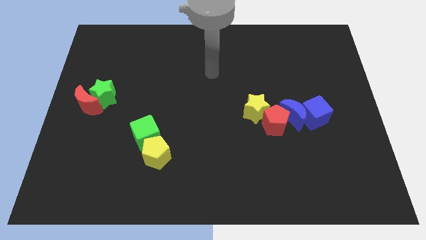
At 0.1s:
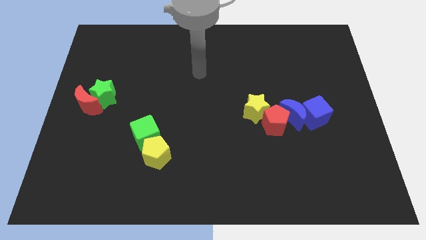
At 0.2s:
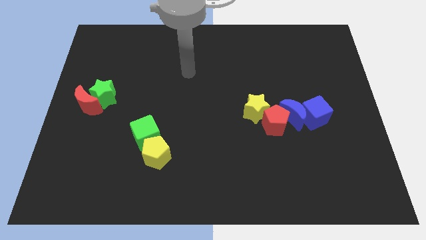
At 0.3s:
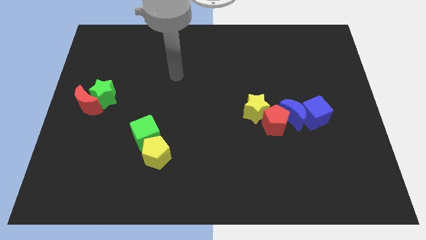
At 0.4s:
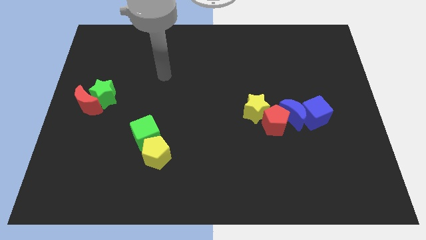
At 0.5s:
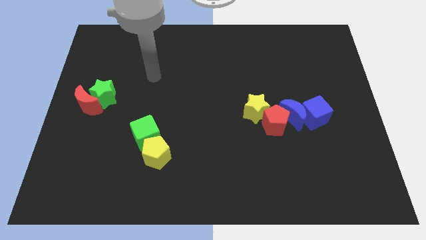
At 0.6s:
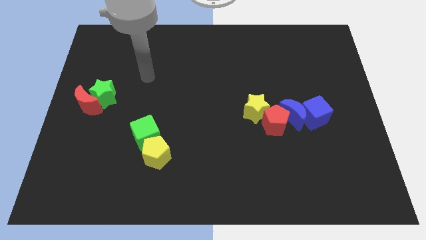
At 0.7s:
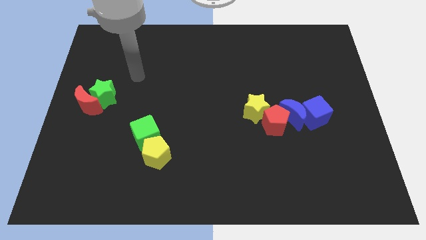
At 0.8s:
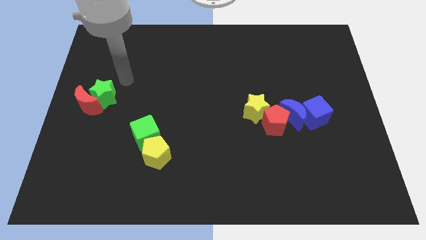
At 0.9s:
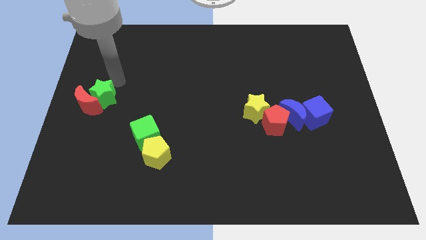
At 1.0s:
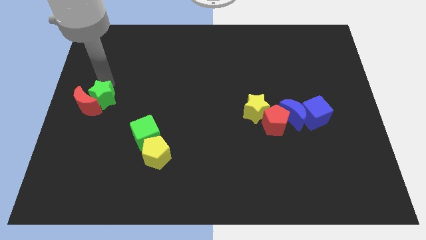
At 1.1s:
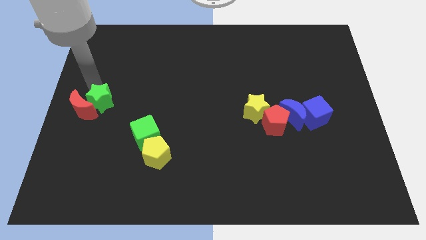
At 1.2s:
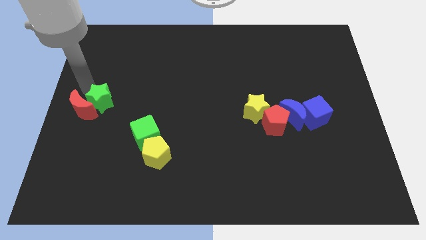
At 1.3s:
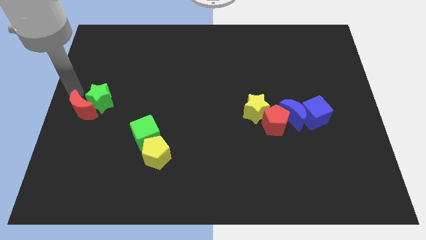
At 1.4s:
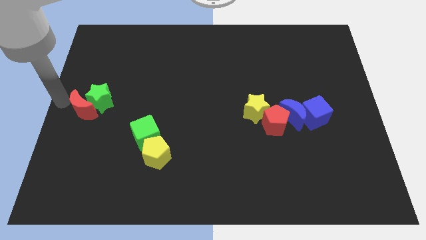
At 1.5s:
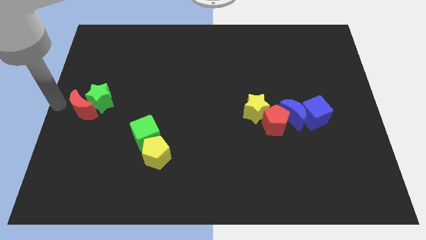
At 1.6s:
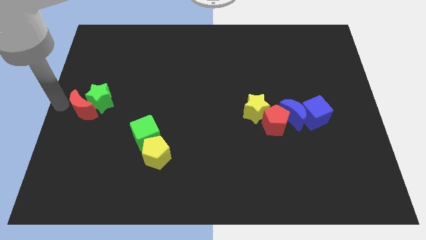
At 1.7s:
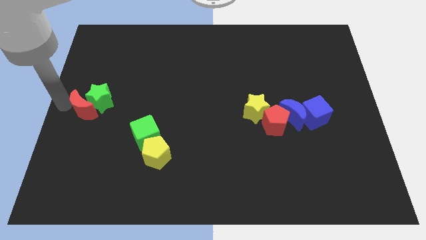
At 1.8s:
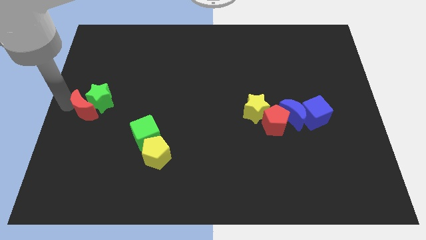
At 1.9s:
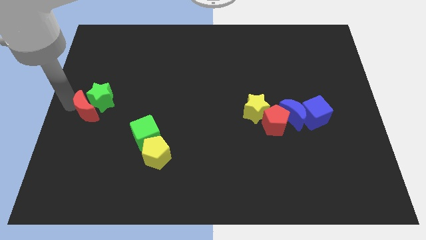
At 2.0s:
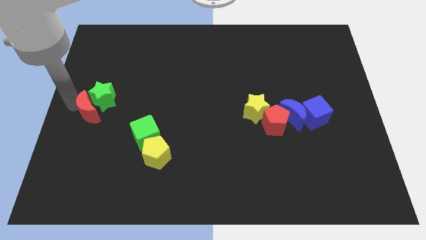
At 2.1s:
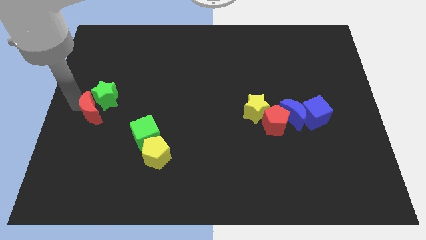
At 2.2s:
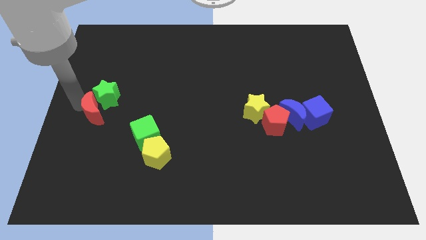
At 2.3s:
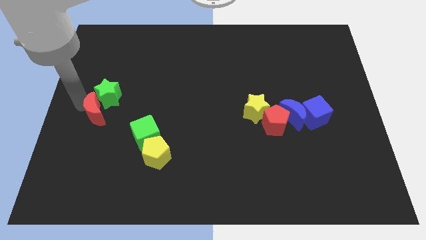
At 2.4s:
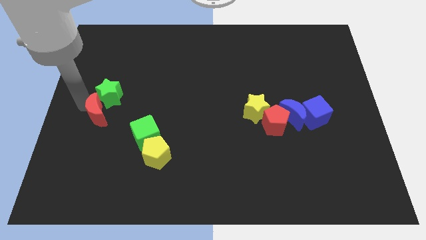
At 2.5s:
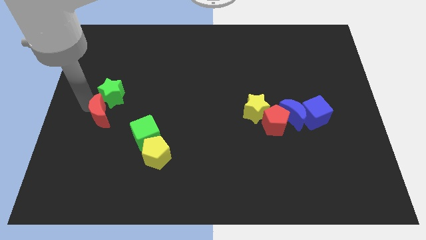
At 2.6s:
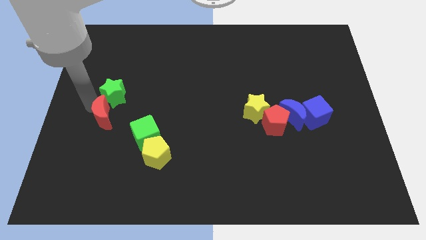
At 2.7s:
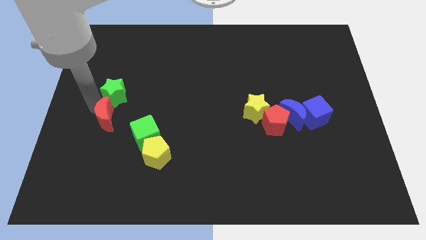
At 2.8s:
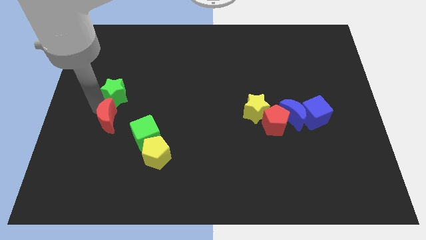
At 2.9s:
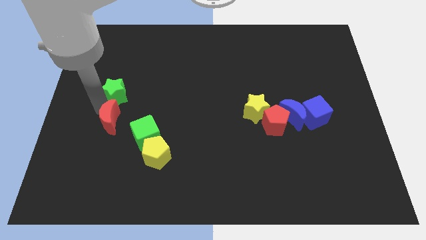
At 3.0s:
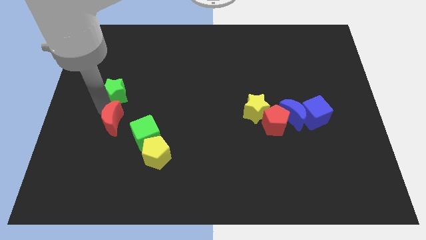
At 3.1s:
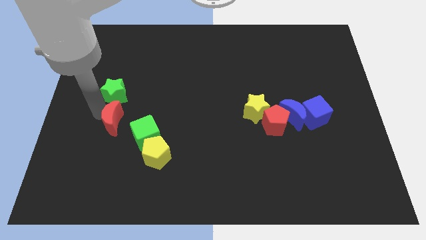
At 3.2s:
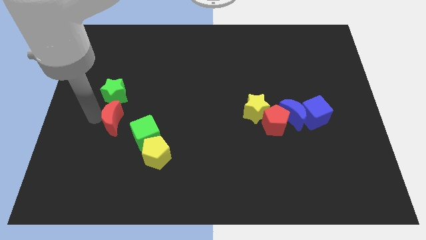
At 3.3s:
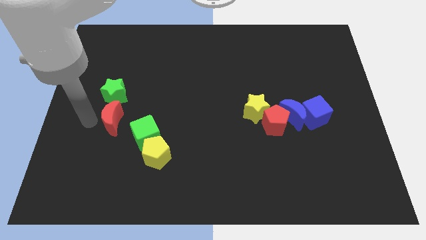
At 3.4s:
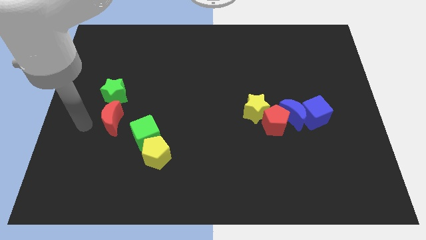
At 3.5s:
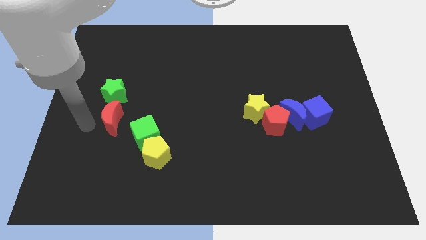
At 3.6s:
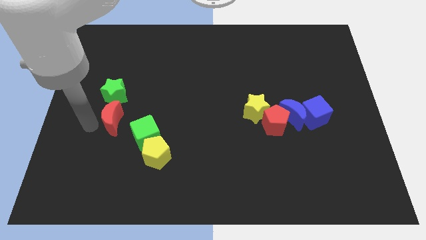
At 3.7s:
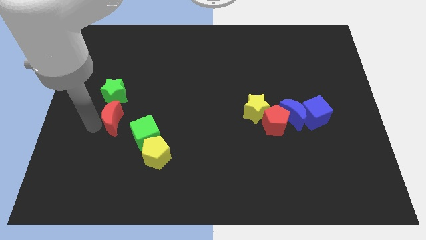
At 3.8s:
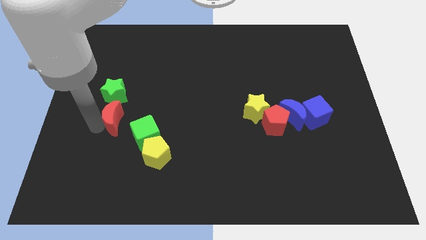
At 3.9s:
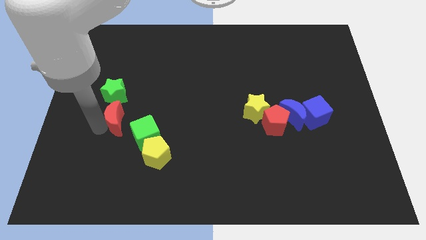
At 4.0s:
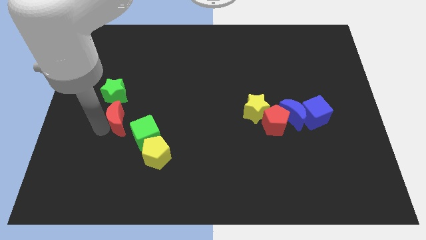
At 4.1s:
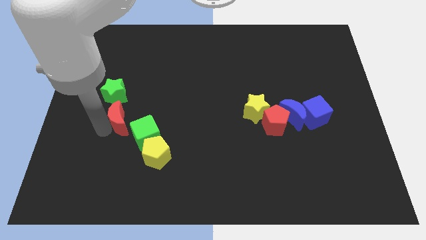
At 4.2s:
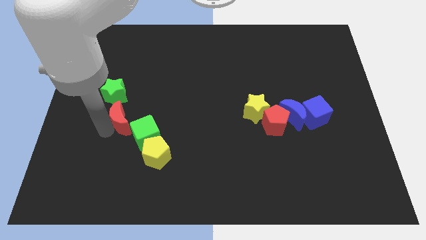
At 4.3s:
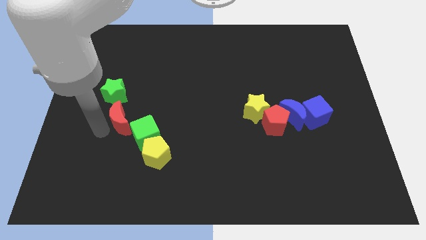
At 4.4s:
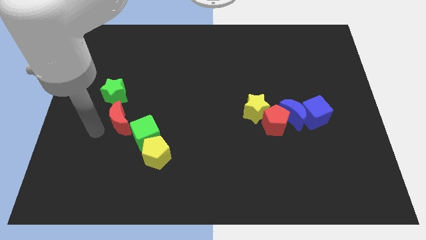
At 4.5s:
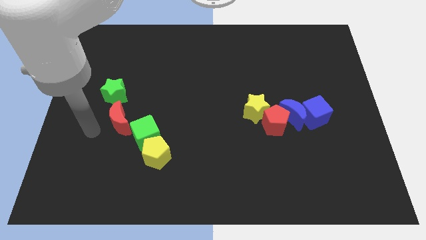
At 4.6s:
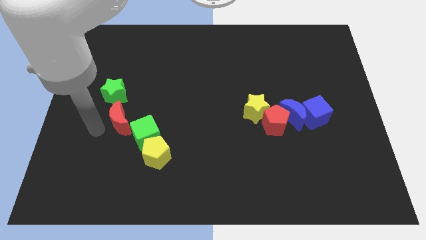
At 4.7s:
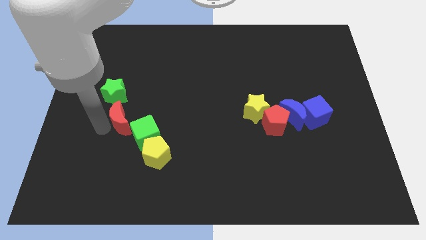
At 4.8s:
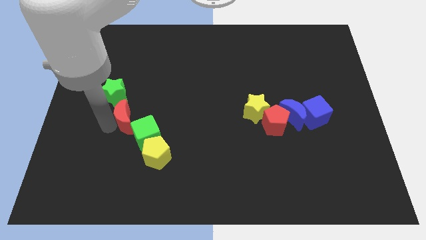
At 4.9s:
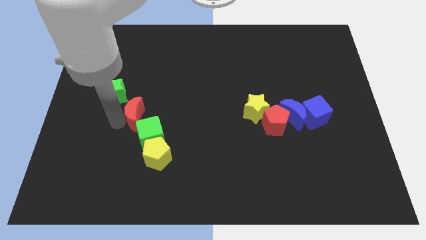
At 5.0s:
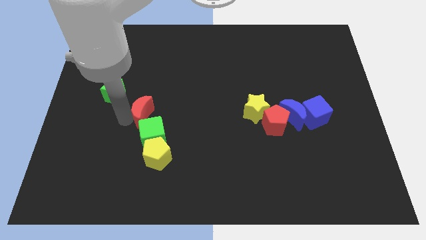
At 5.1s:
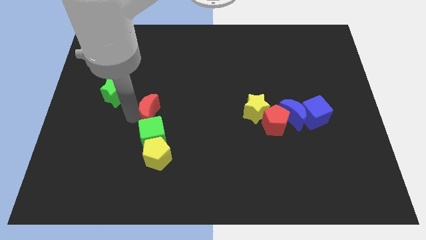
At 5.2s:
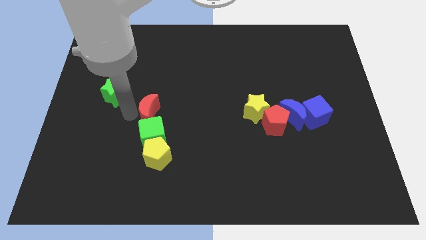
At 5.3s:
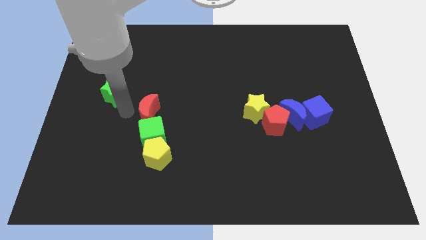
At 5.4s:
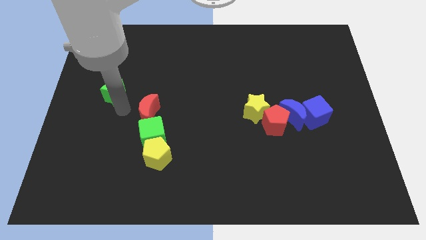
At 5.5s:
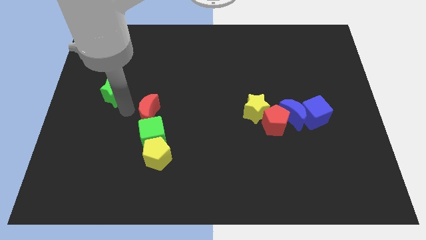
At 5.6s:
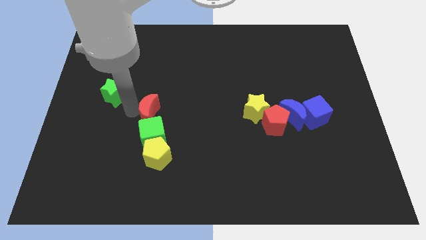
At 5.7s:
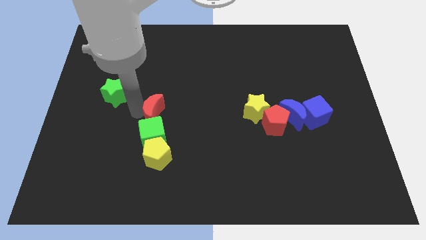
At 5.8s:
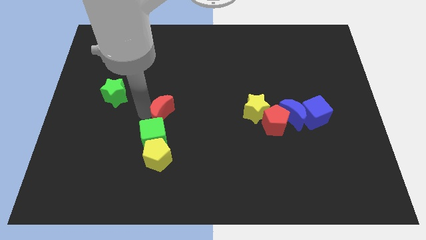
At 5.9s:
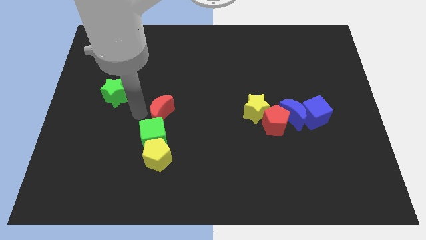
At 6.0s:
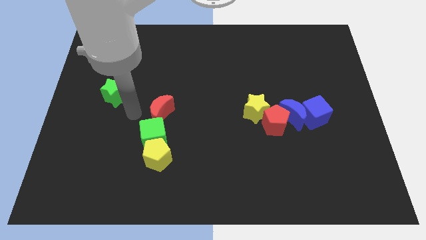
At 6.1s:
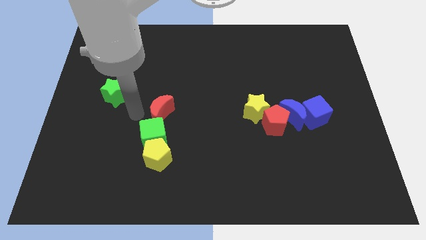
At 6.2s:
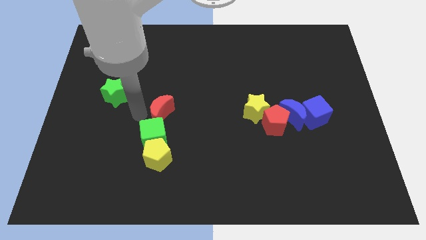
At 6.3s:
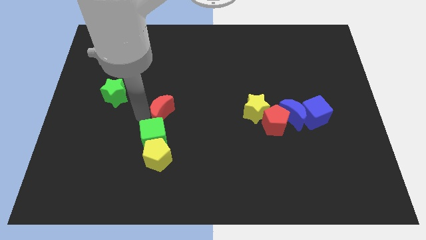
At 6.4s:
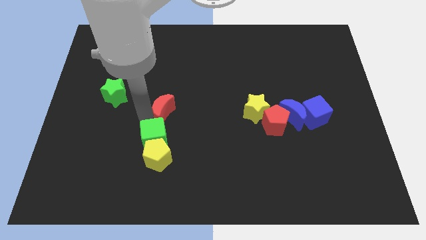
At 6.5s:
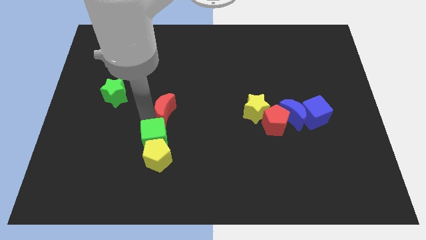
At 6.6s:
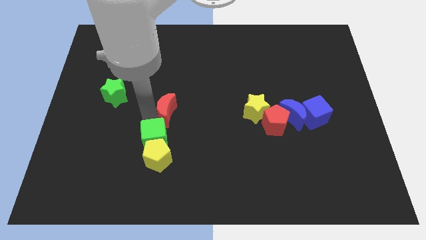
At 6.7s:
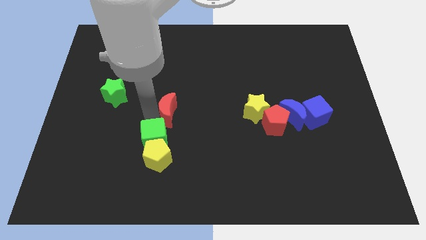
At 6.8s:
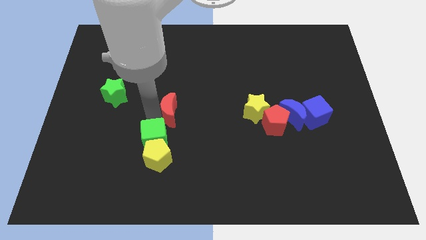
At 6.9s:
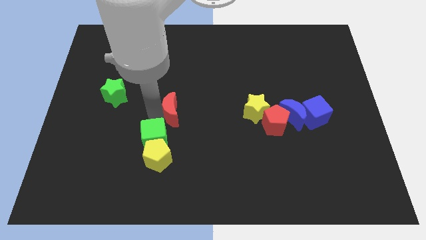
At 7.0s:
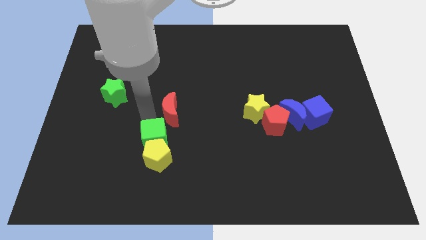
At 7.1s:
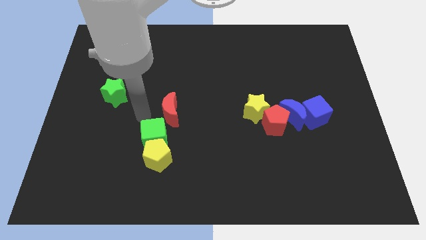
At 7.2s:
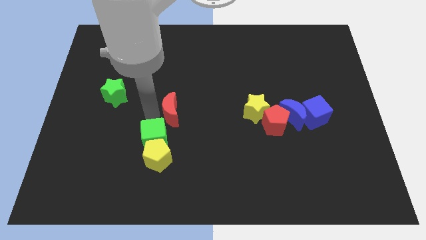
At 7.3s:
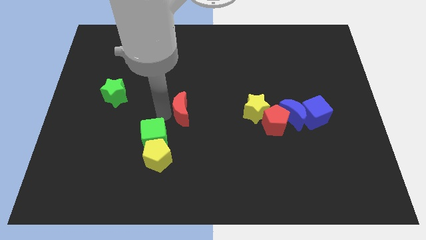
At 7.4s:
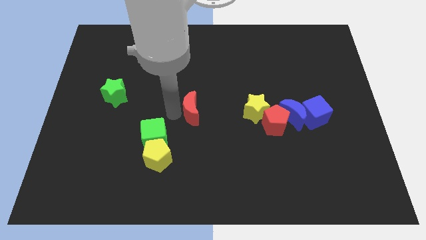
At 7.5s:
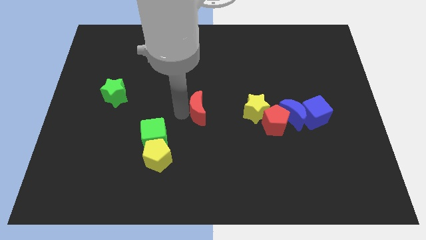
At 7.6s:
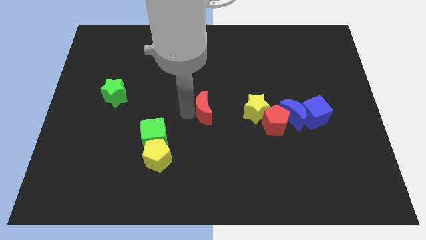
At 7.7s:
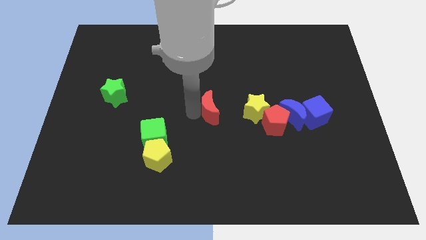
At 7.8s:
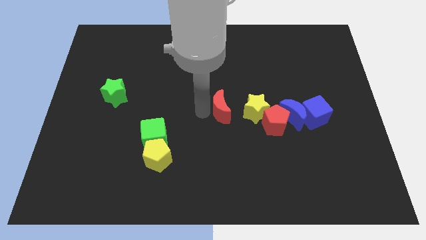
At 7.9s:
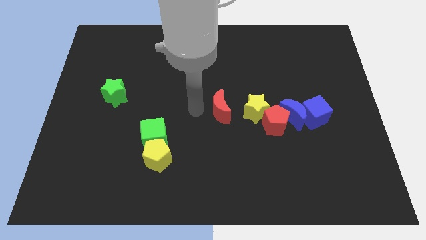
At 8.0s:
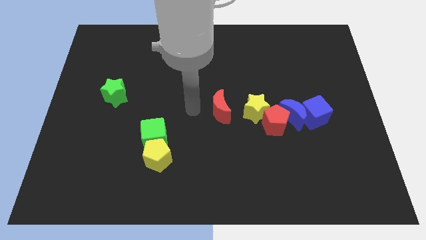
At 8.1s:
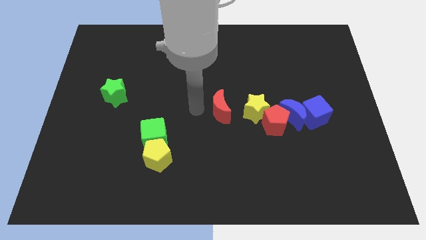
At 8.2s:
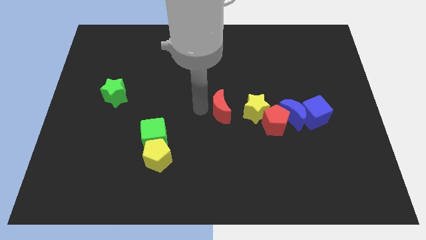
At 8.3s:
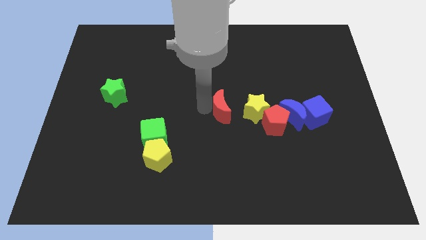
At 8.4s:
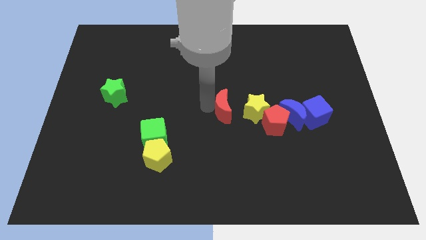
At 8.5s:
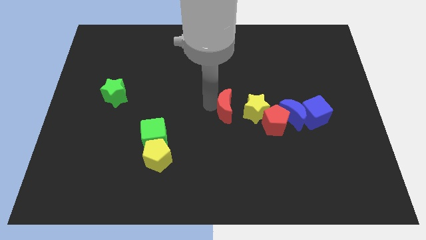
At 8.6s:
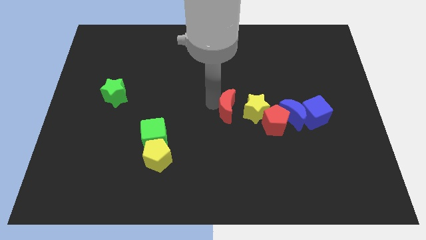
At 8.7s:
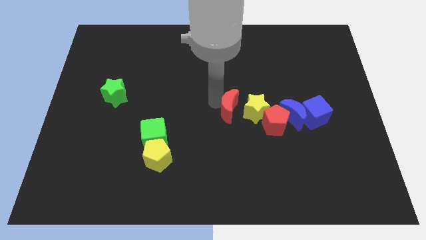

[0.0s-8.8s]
move the red moon close to the yellow star
